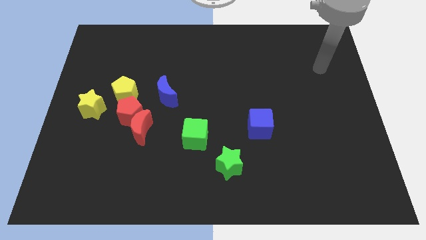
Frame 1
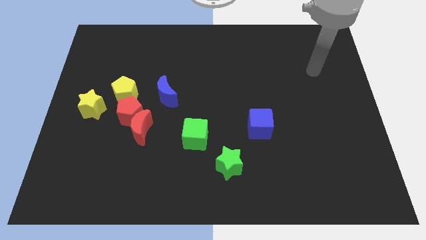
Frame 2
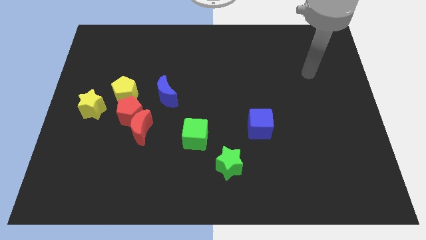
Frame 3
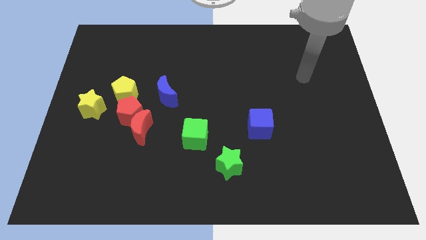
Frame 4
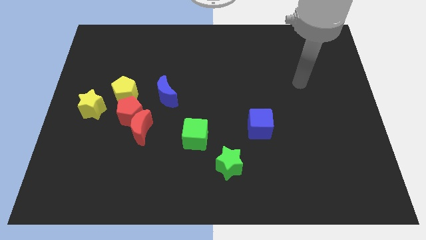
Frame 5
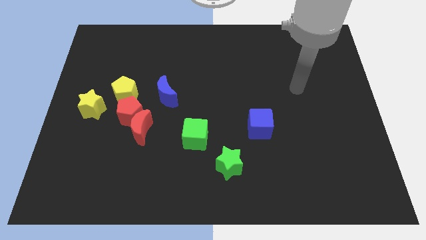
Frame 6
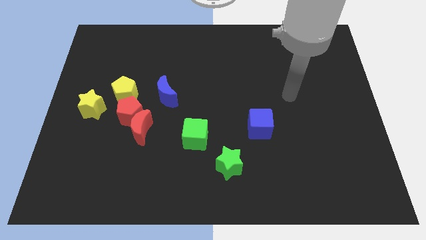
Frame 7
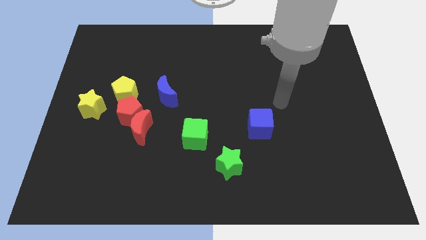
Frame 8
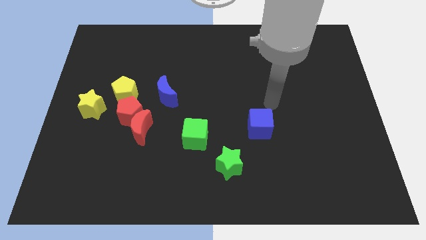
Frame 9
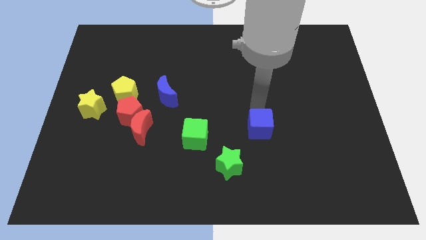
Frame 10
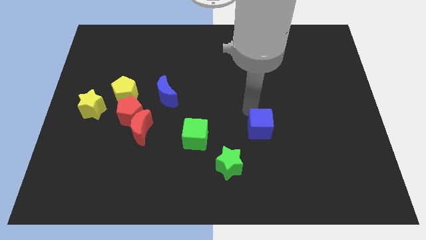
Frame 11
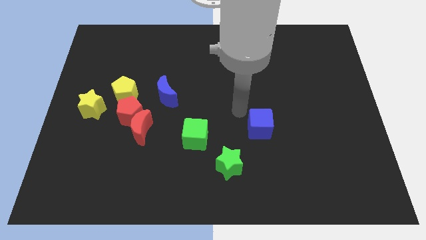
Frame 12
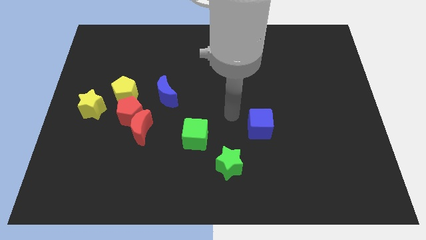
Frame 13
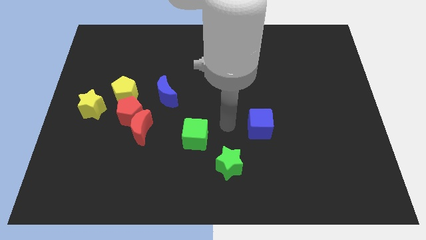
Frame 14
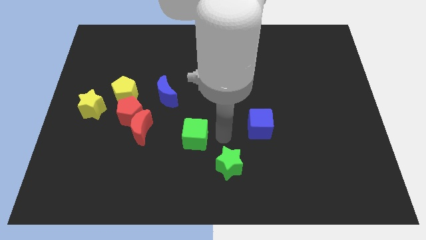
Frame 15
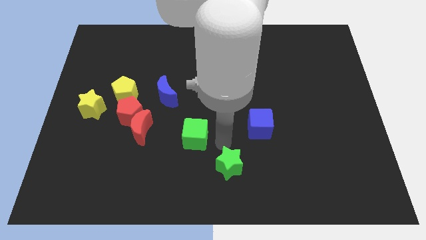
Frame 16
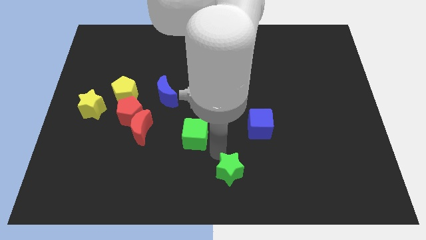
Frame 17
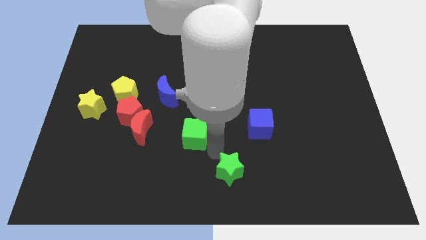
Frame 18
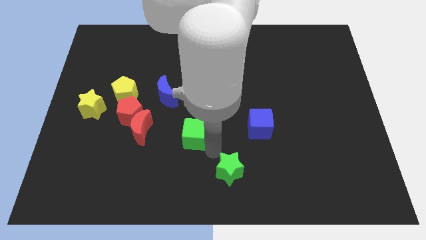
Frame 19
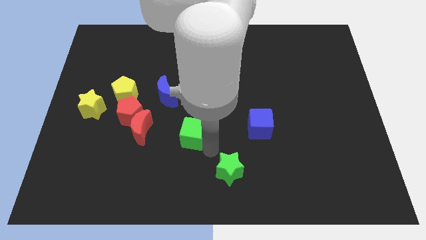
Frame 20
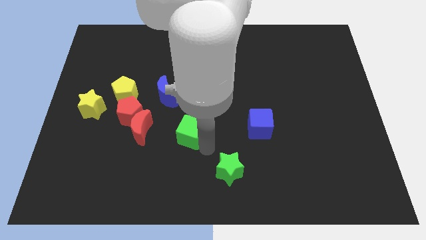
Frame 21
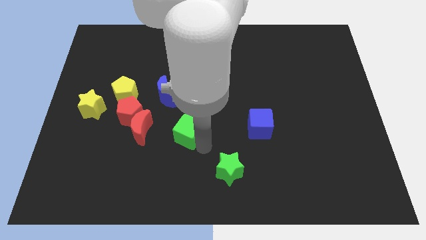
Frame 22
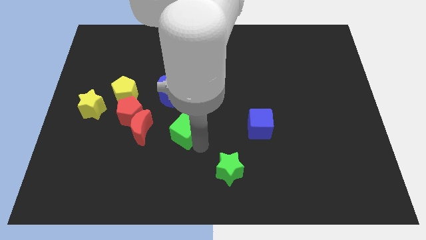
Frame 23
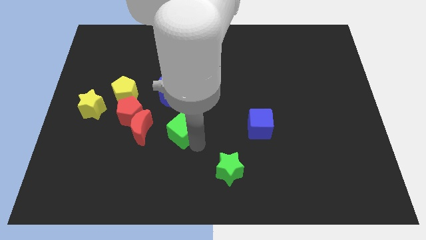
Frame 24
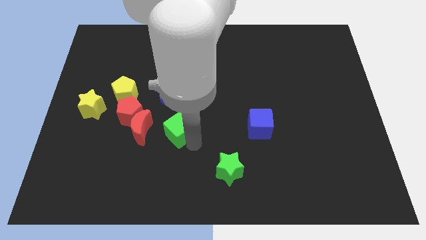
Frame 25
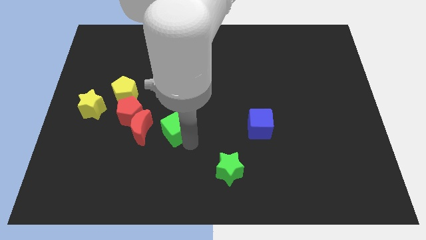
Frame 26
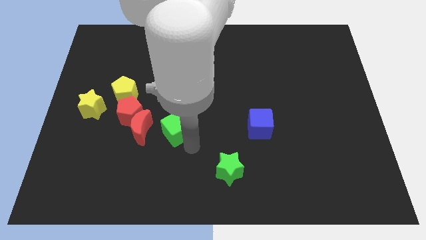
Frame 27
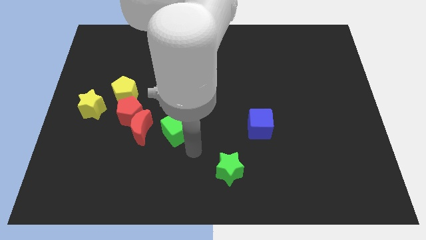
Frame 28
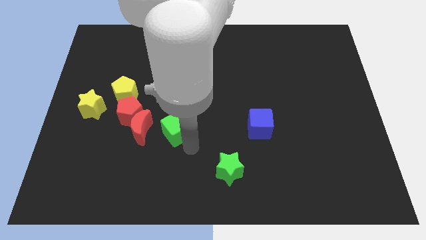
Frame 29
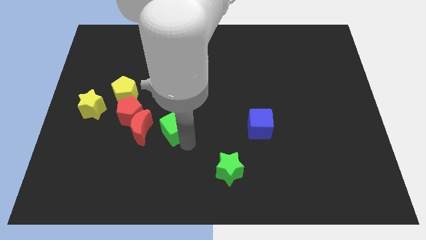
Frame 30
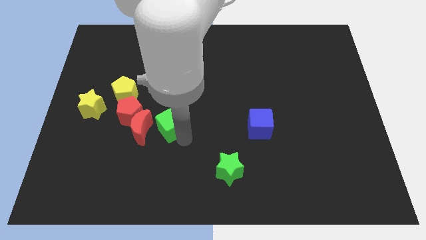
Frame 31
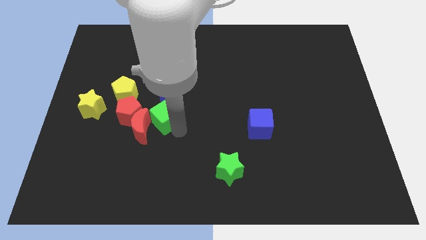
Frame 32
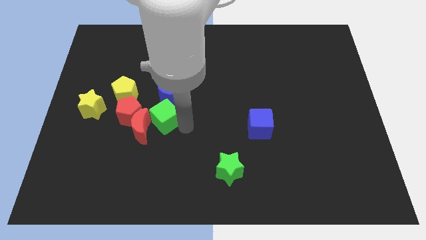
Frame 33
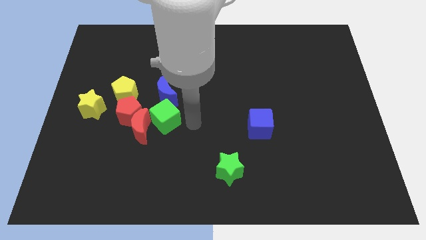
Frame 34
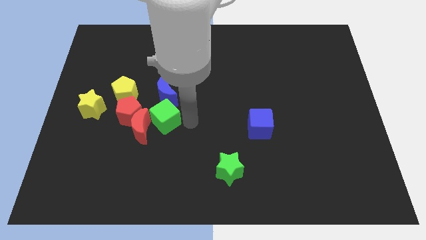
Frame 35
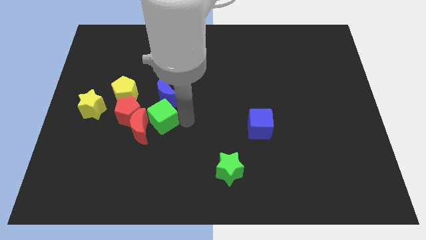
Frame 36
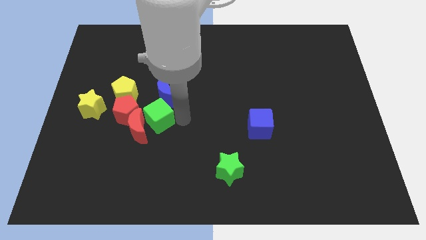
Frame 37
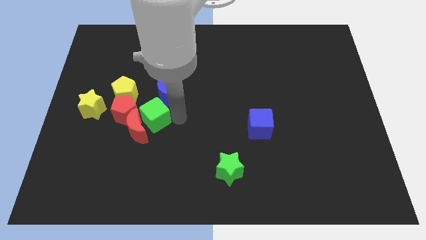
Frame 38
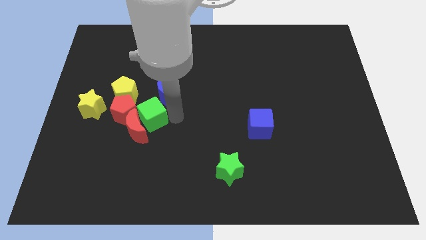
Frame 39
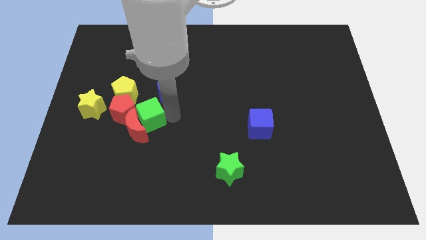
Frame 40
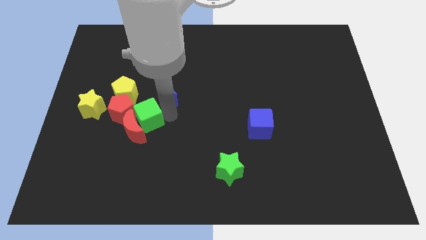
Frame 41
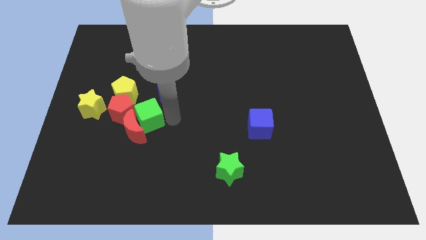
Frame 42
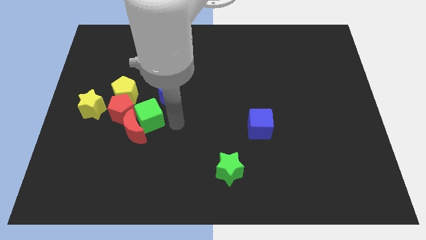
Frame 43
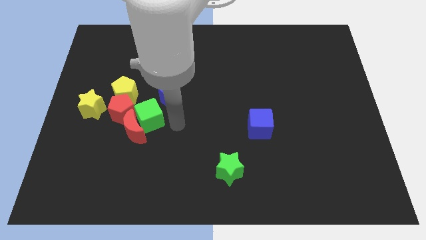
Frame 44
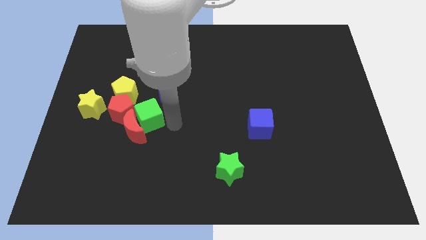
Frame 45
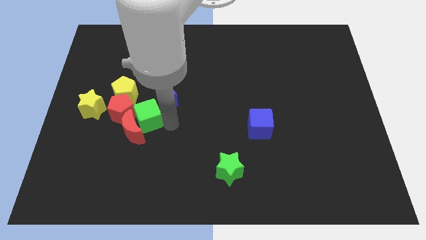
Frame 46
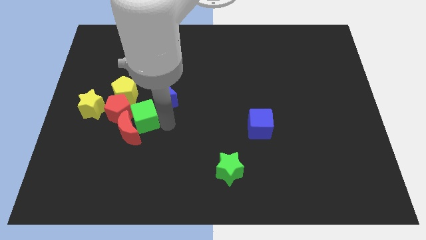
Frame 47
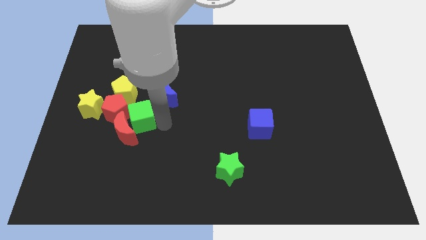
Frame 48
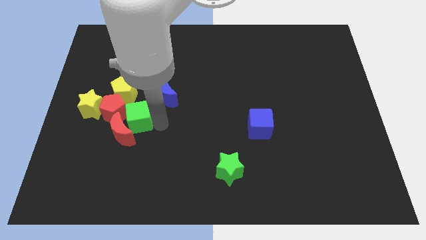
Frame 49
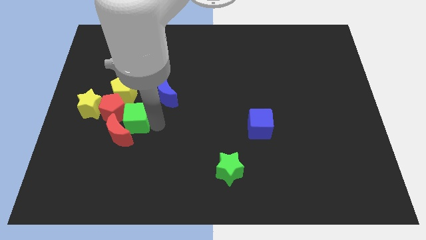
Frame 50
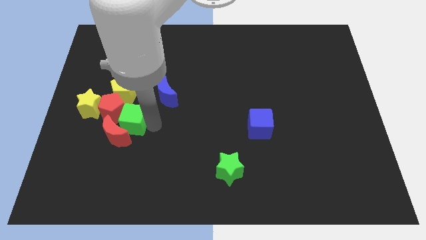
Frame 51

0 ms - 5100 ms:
slide the green cube close to the red pentagon

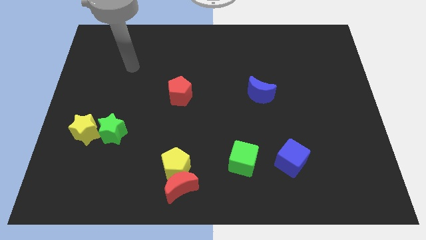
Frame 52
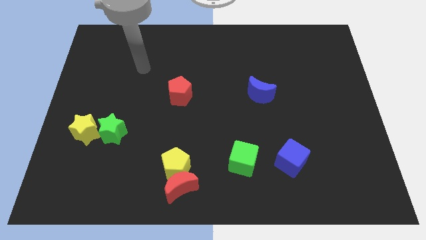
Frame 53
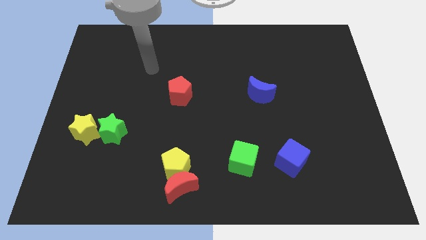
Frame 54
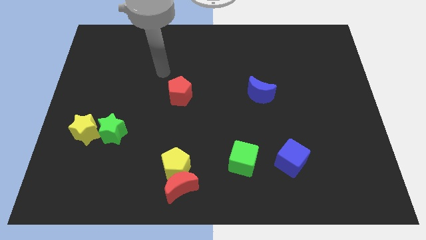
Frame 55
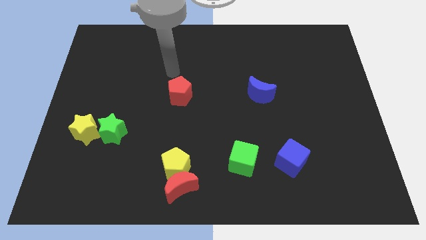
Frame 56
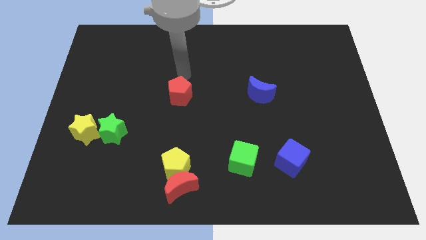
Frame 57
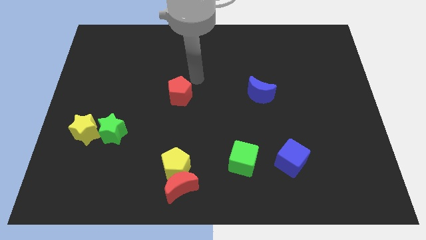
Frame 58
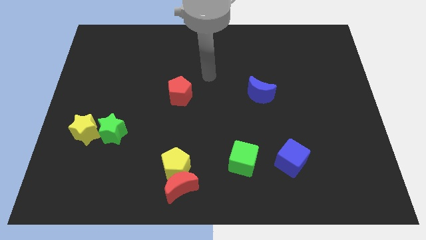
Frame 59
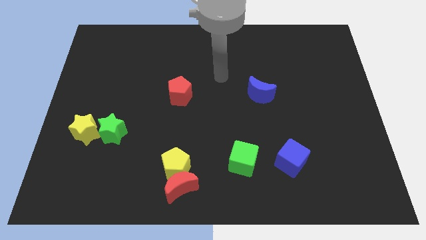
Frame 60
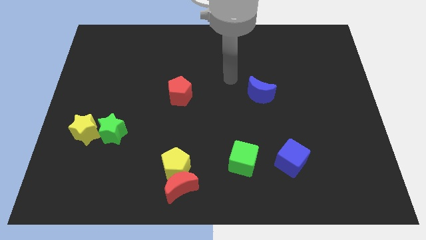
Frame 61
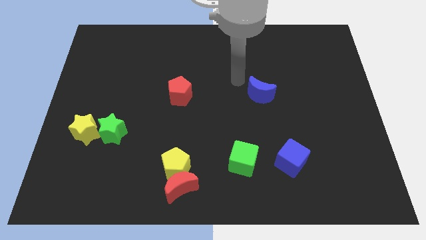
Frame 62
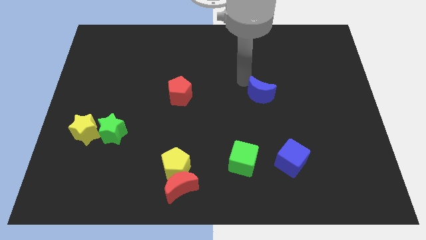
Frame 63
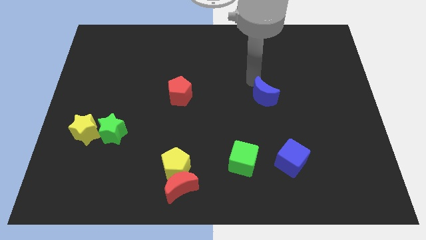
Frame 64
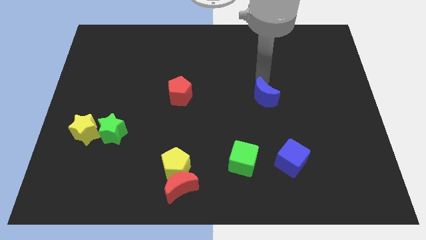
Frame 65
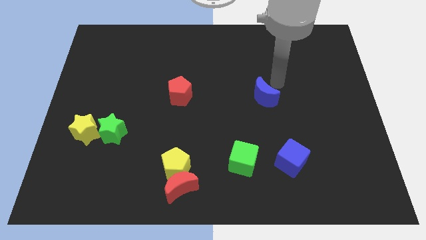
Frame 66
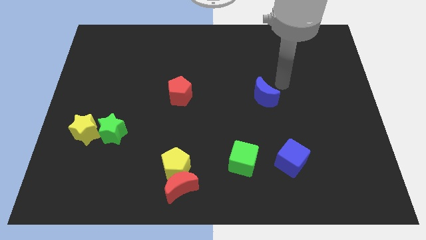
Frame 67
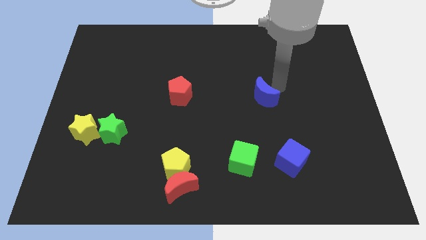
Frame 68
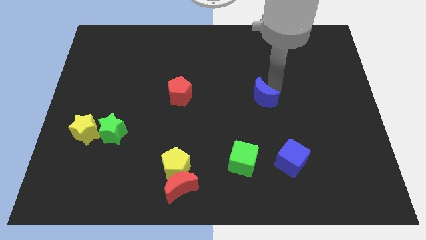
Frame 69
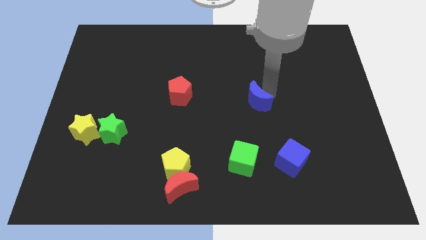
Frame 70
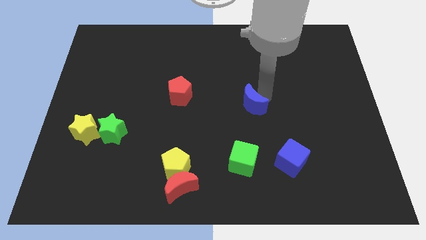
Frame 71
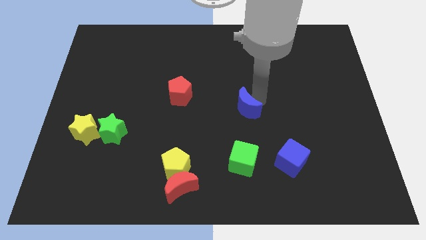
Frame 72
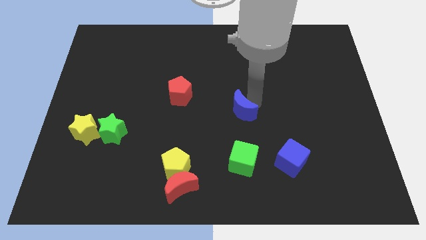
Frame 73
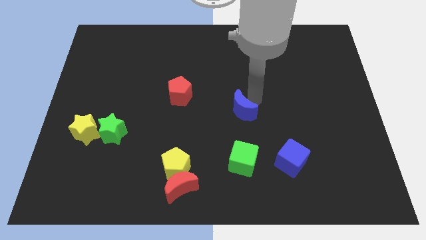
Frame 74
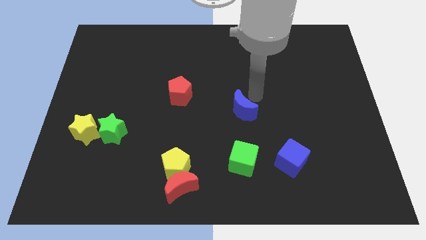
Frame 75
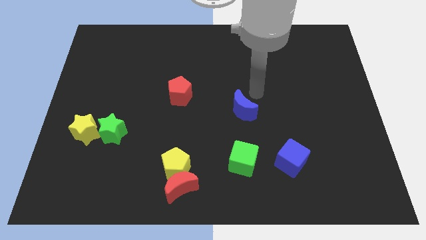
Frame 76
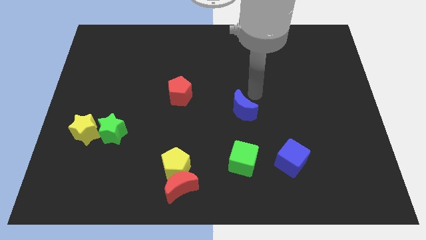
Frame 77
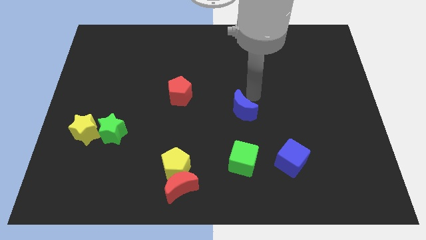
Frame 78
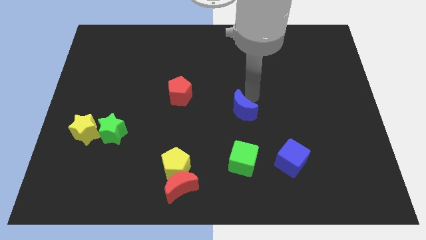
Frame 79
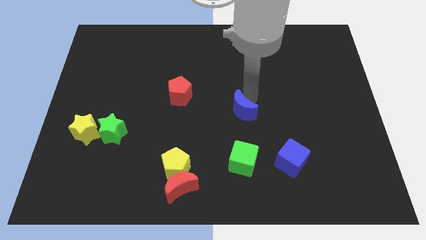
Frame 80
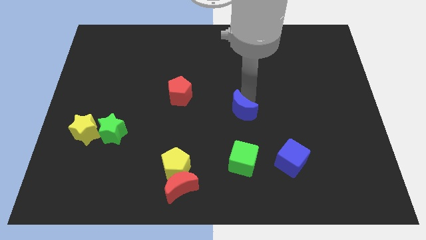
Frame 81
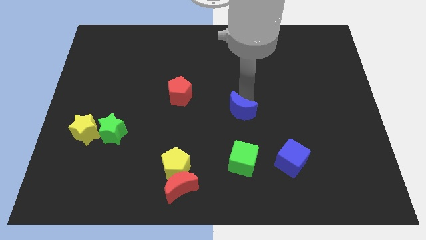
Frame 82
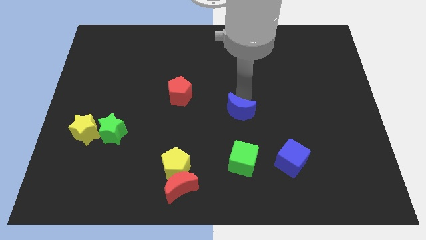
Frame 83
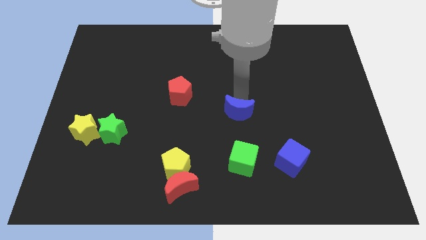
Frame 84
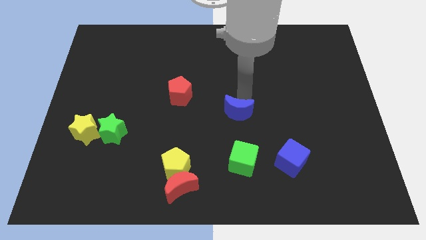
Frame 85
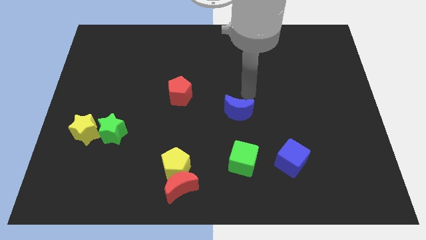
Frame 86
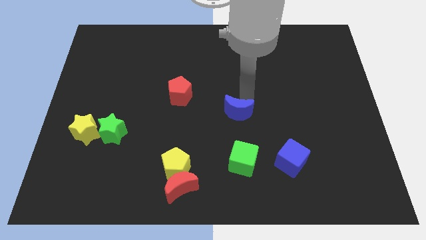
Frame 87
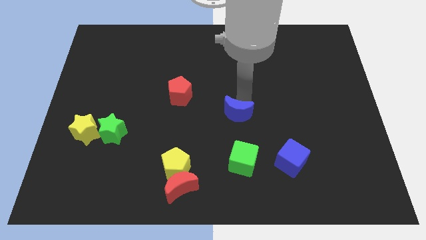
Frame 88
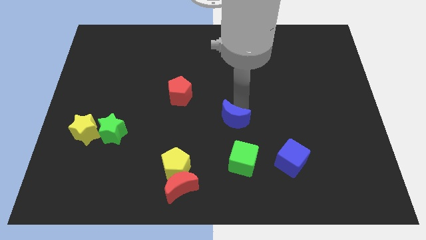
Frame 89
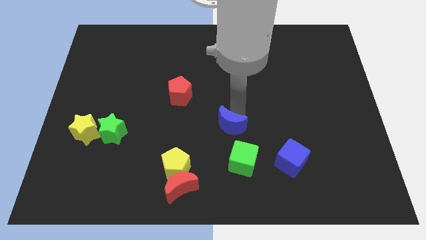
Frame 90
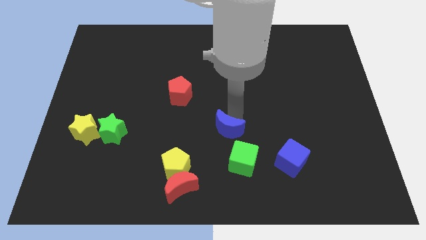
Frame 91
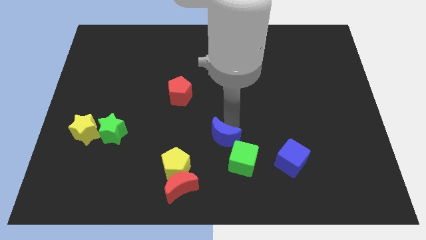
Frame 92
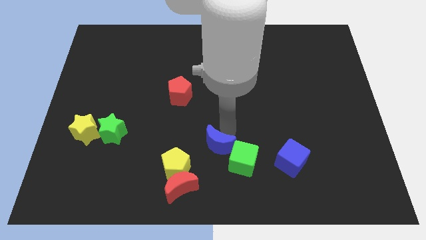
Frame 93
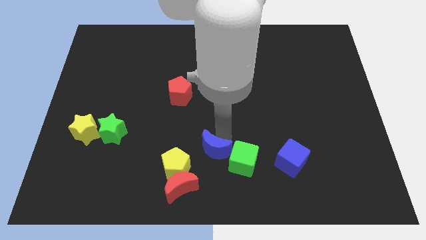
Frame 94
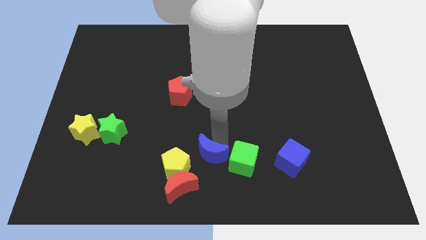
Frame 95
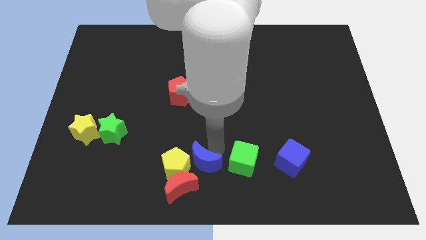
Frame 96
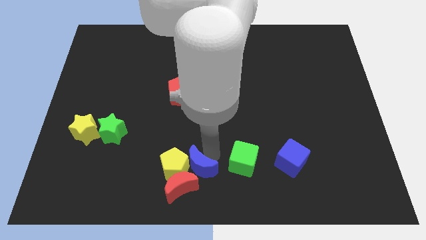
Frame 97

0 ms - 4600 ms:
put the blue moon to the red moon
